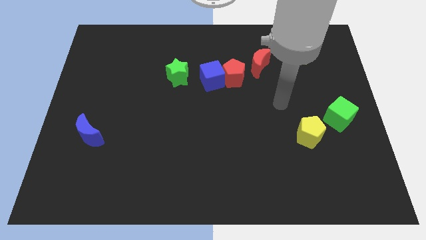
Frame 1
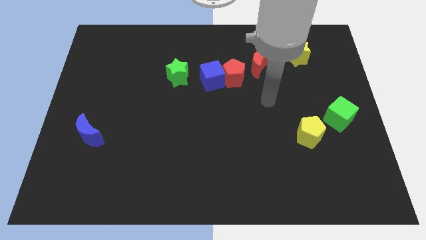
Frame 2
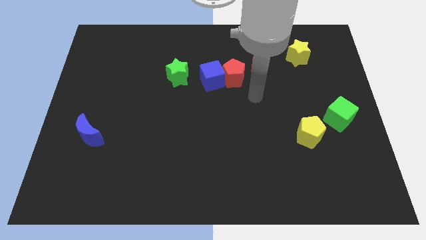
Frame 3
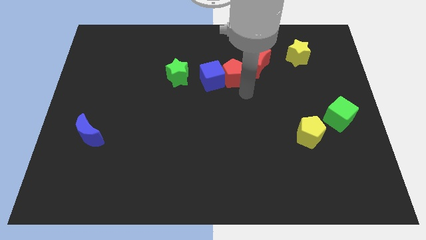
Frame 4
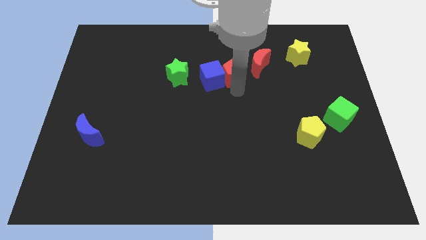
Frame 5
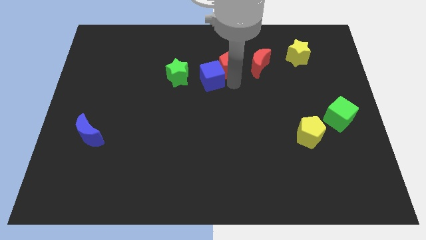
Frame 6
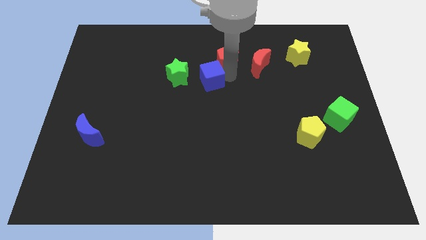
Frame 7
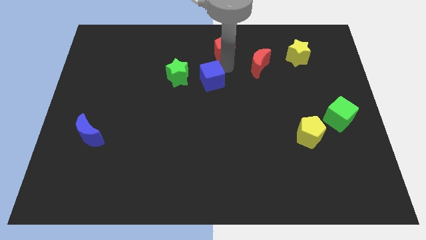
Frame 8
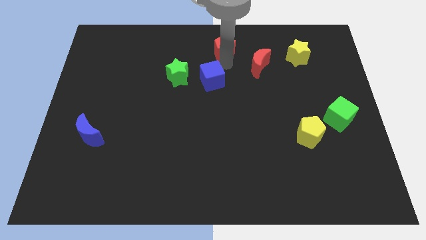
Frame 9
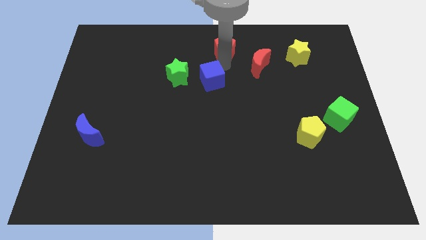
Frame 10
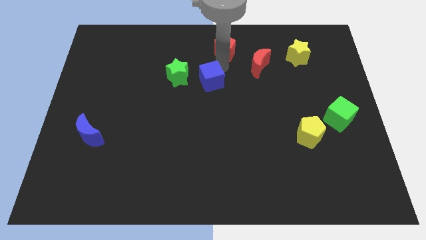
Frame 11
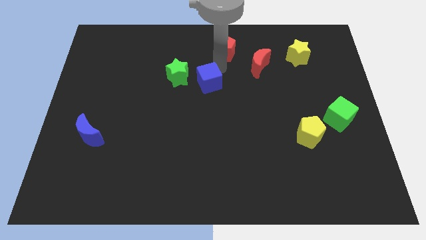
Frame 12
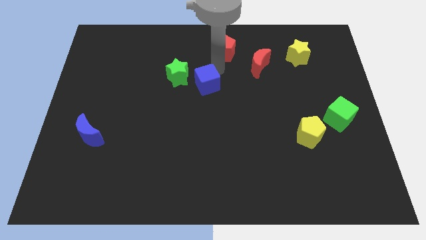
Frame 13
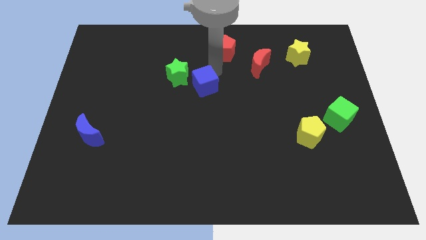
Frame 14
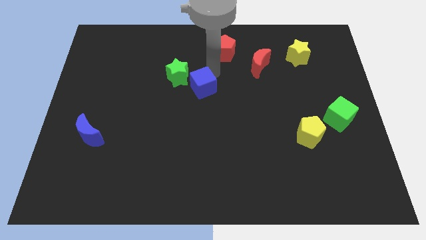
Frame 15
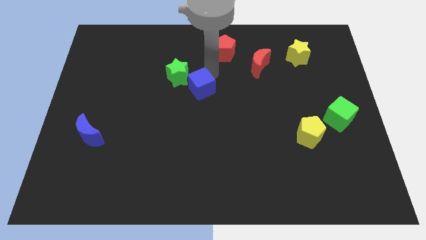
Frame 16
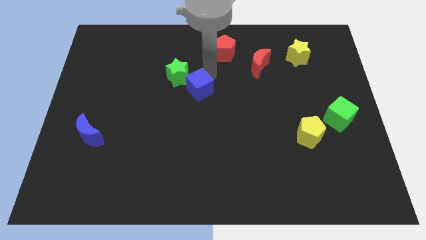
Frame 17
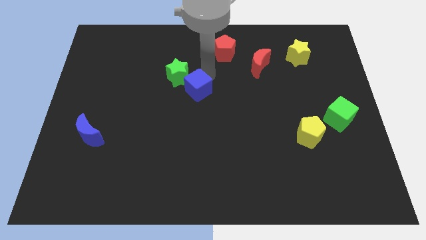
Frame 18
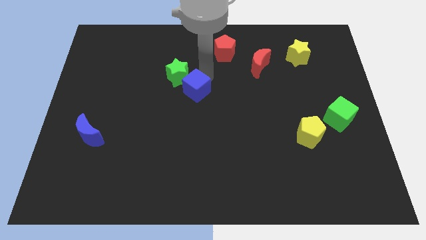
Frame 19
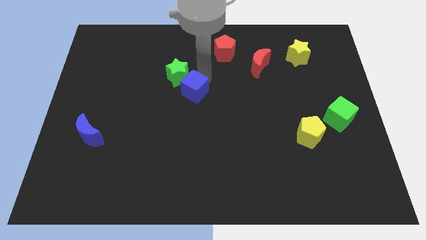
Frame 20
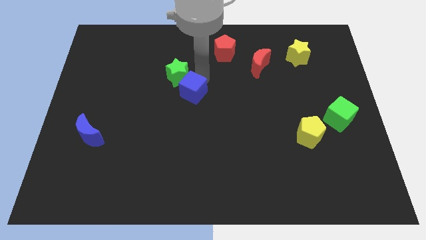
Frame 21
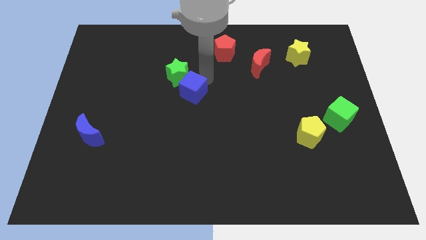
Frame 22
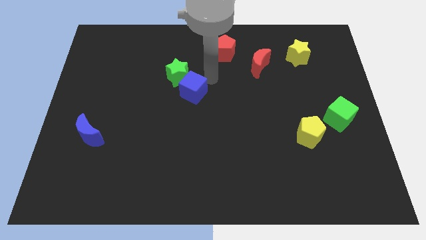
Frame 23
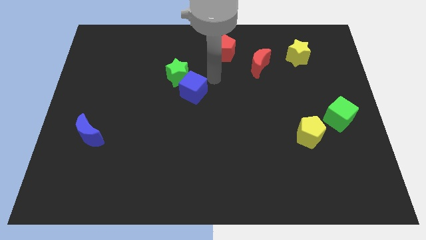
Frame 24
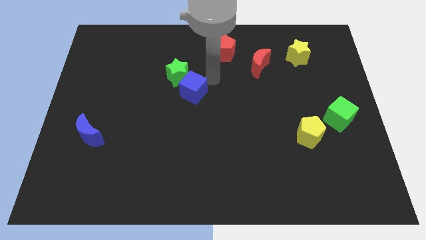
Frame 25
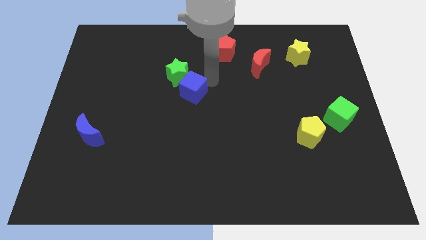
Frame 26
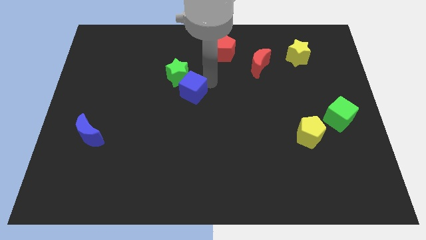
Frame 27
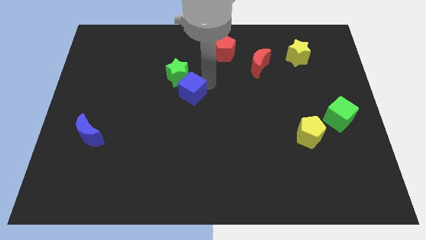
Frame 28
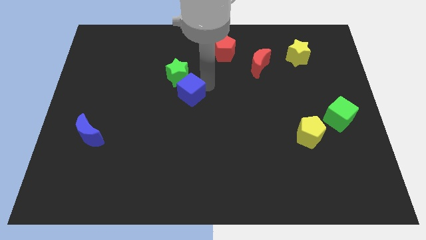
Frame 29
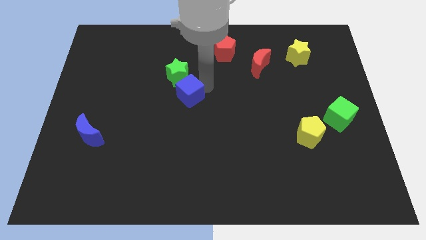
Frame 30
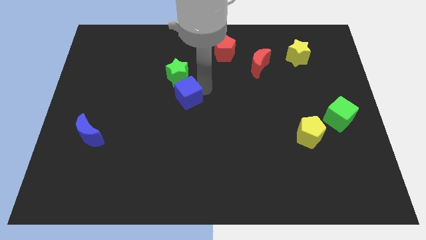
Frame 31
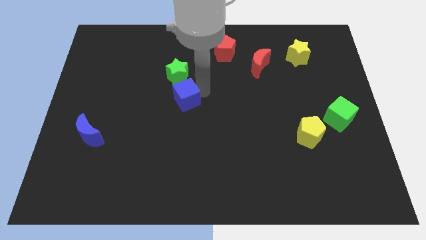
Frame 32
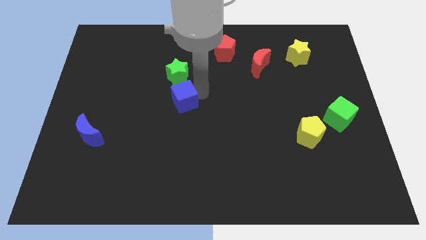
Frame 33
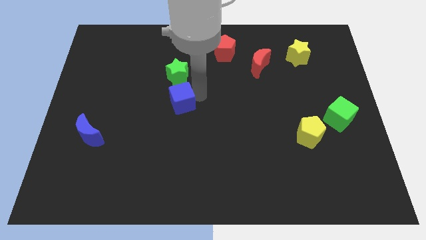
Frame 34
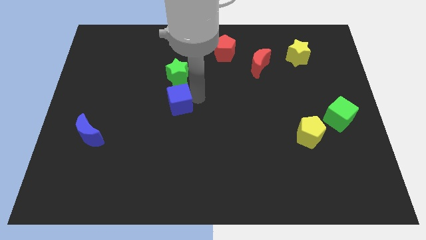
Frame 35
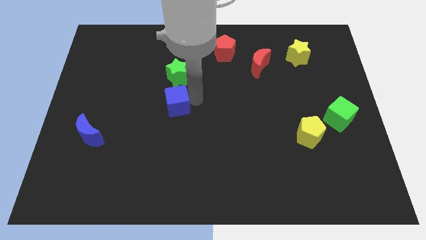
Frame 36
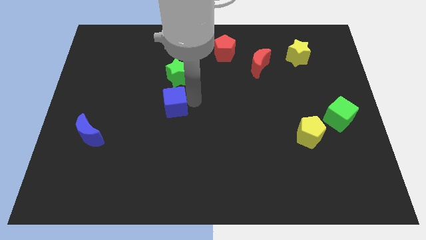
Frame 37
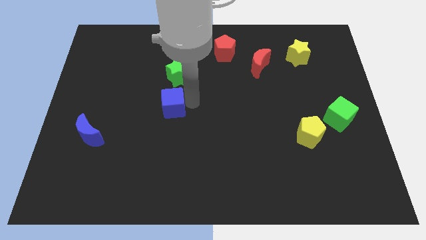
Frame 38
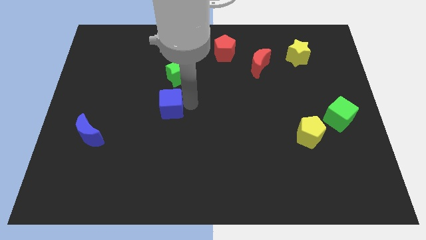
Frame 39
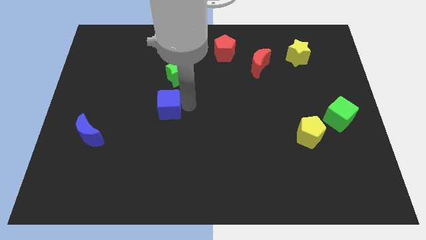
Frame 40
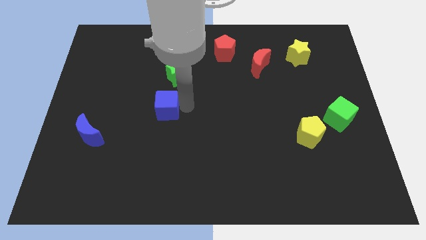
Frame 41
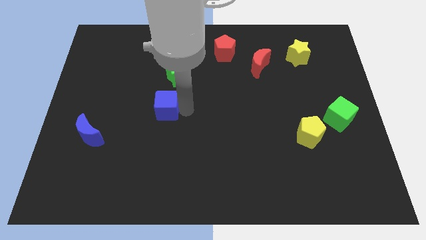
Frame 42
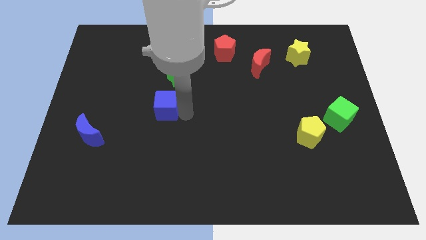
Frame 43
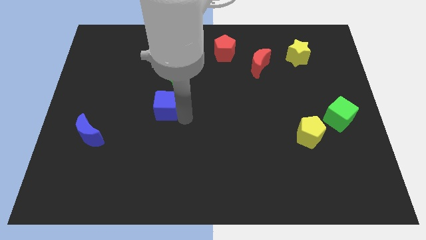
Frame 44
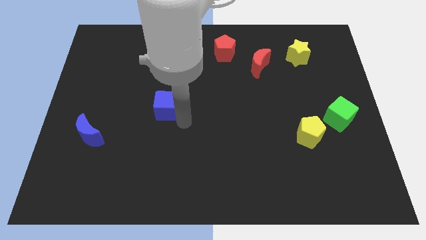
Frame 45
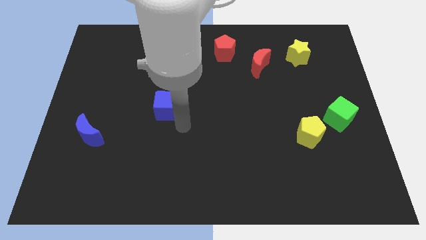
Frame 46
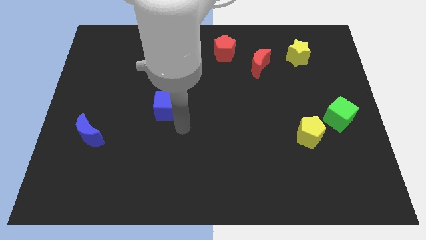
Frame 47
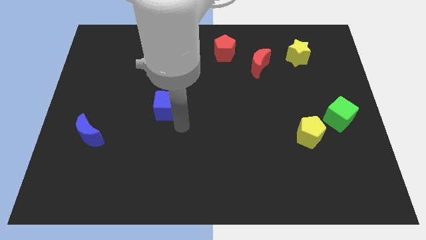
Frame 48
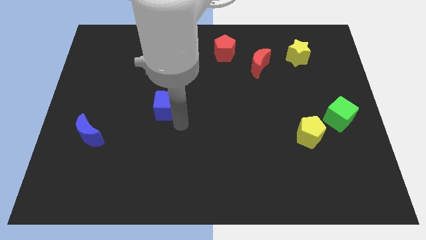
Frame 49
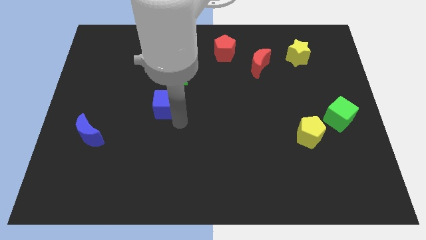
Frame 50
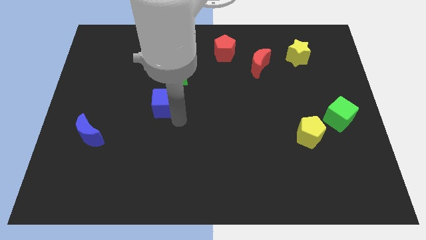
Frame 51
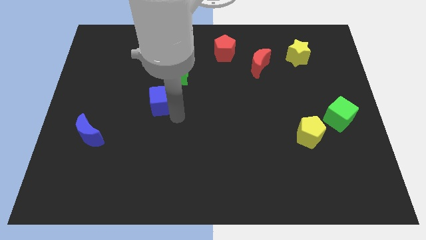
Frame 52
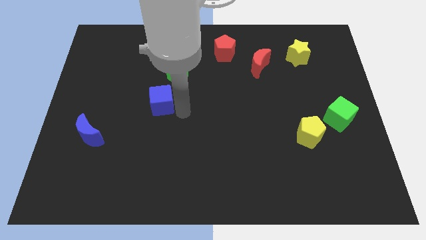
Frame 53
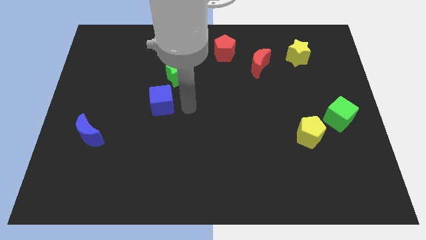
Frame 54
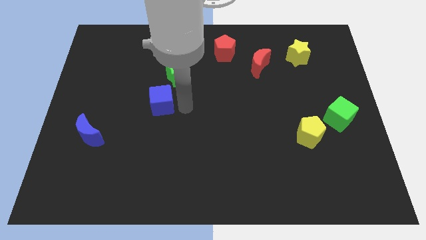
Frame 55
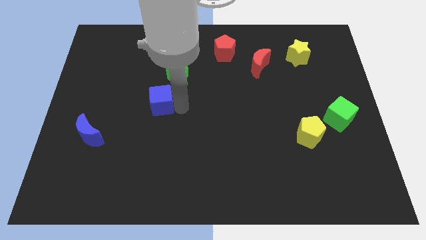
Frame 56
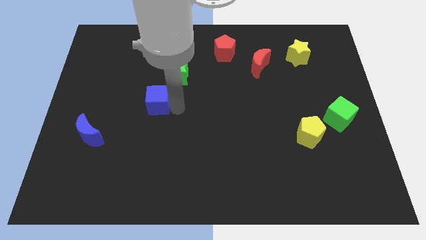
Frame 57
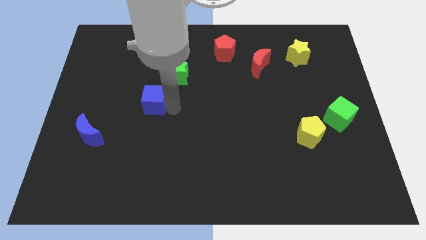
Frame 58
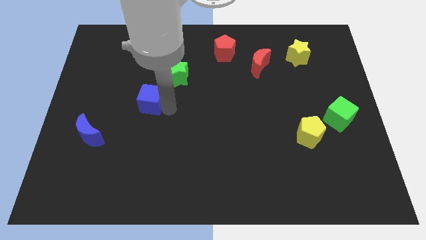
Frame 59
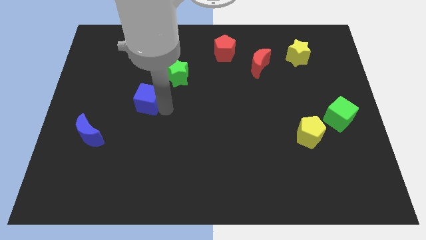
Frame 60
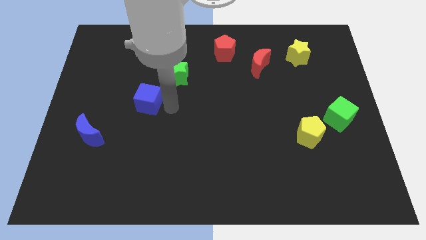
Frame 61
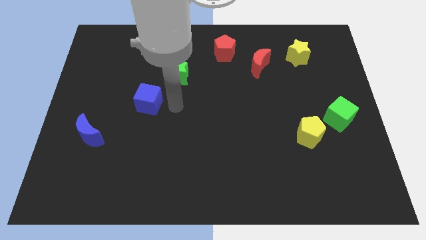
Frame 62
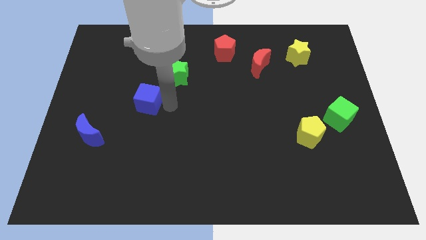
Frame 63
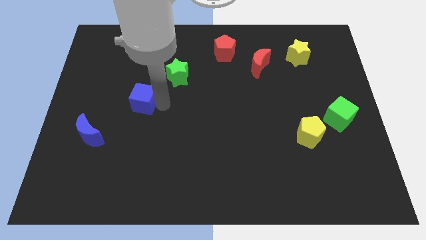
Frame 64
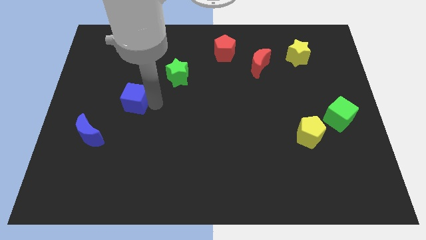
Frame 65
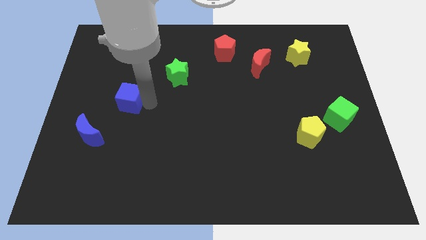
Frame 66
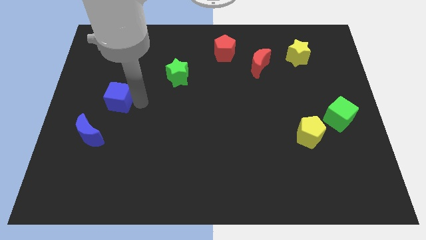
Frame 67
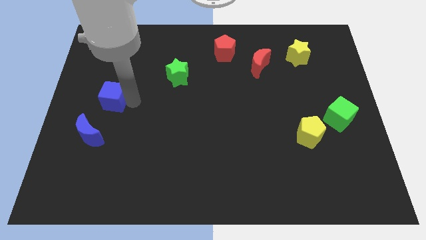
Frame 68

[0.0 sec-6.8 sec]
slide the blue cube to the top of the blue moon
